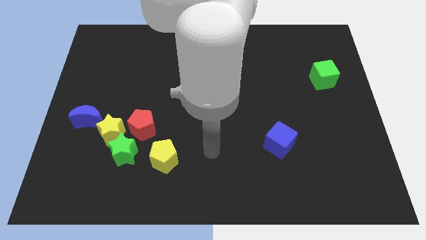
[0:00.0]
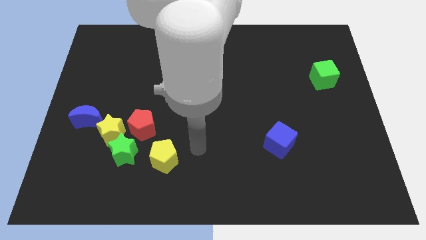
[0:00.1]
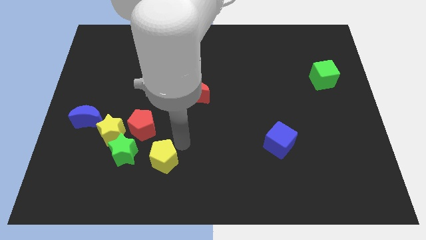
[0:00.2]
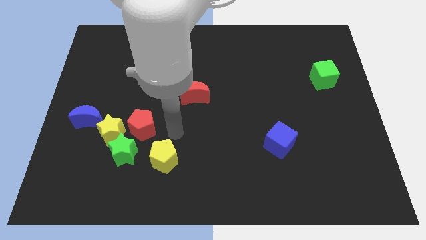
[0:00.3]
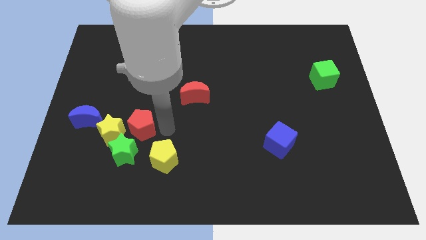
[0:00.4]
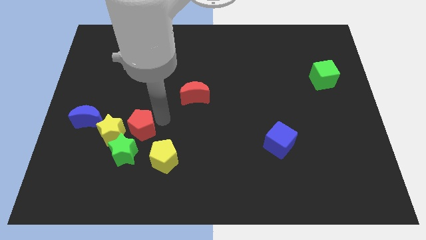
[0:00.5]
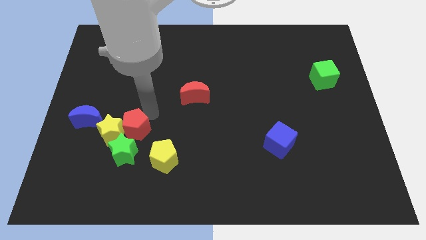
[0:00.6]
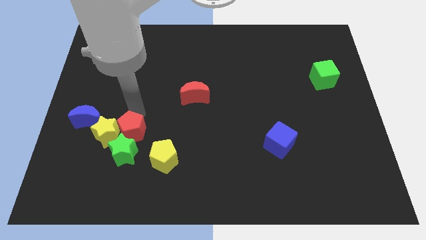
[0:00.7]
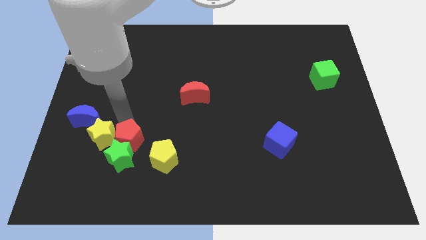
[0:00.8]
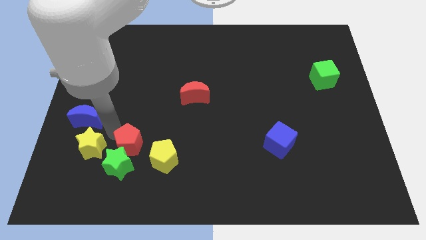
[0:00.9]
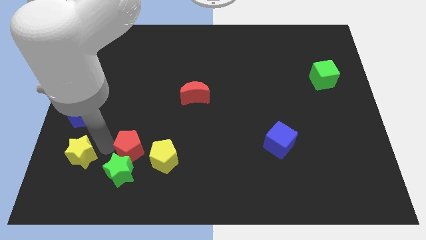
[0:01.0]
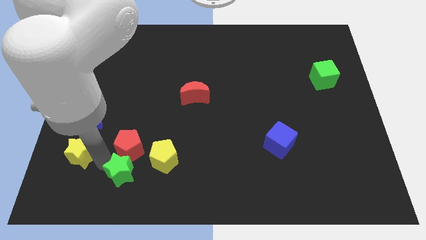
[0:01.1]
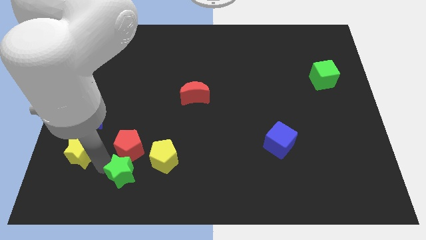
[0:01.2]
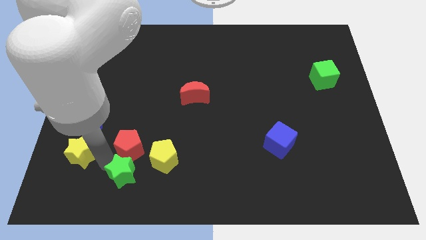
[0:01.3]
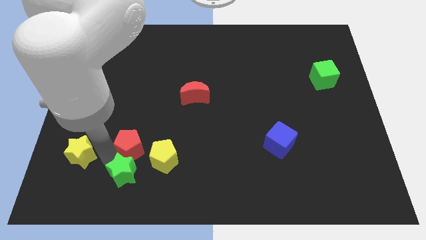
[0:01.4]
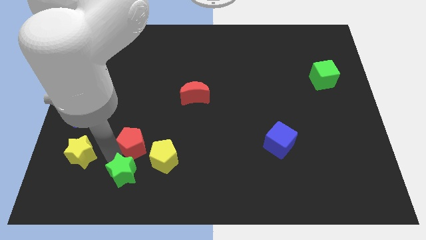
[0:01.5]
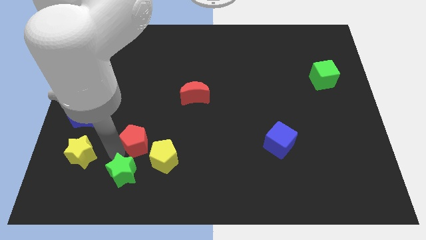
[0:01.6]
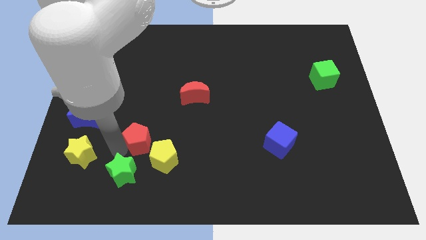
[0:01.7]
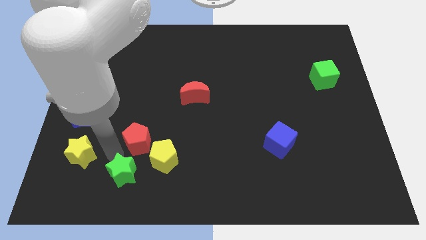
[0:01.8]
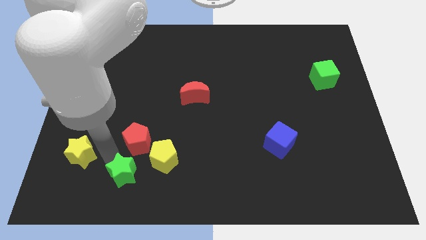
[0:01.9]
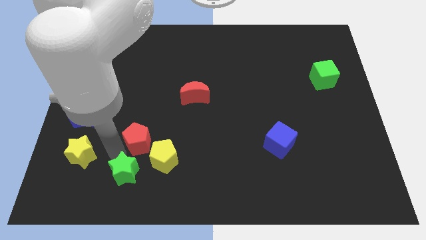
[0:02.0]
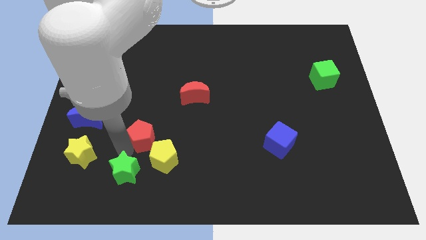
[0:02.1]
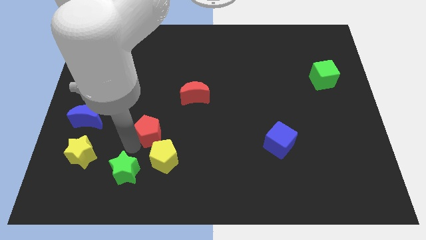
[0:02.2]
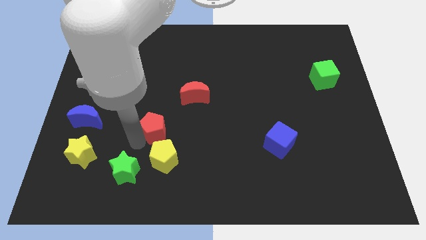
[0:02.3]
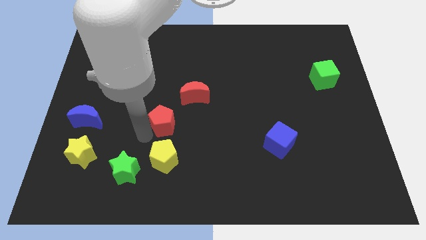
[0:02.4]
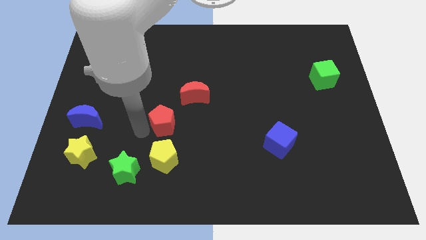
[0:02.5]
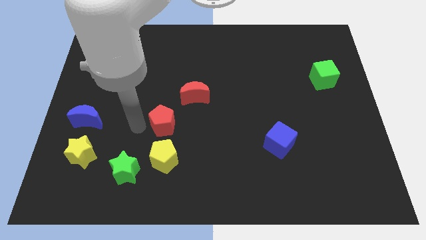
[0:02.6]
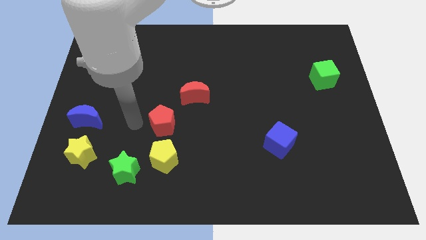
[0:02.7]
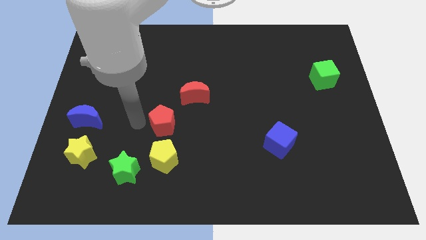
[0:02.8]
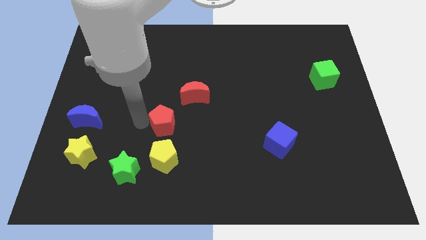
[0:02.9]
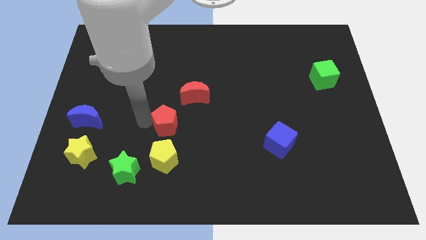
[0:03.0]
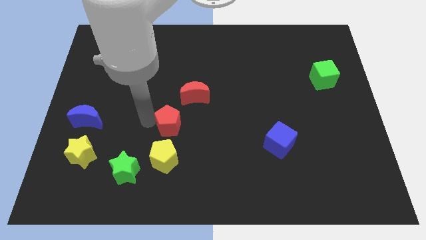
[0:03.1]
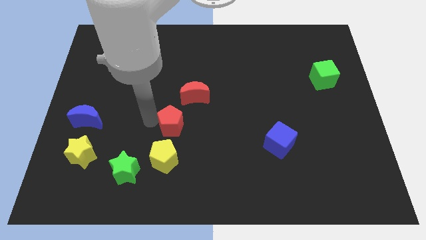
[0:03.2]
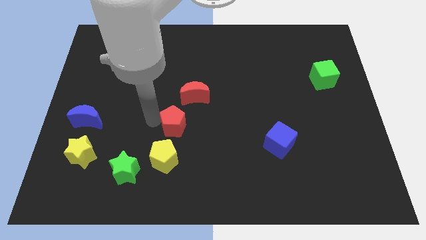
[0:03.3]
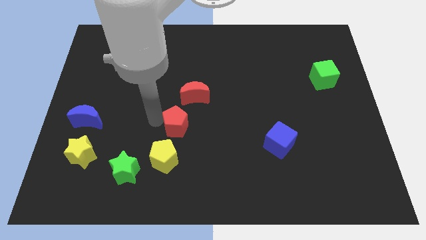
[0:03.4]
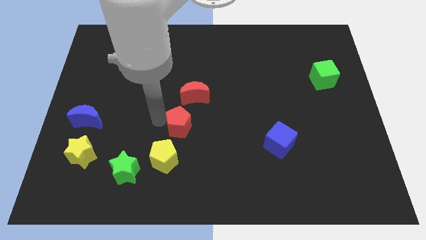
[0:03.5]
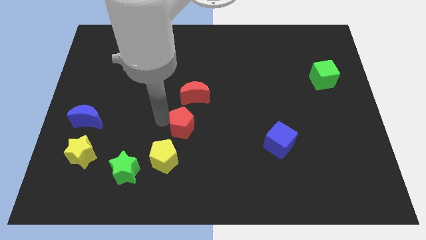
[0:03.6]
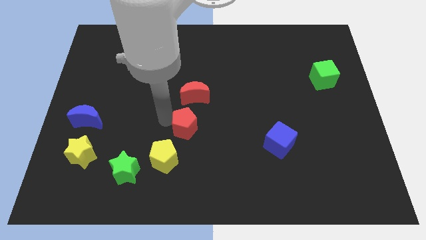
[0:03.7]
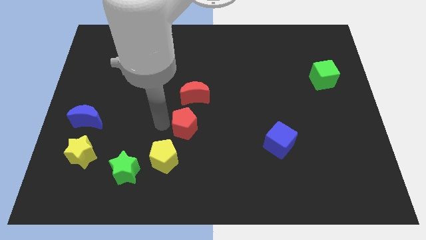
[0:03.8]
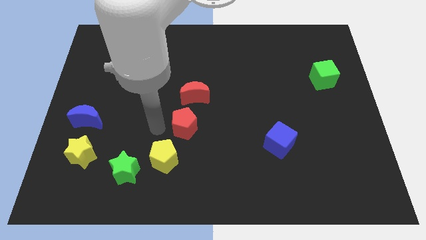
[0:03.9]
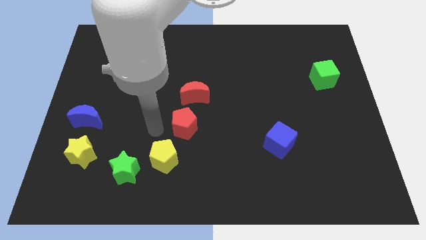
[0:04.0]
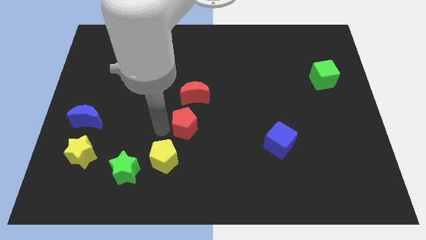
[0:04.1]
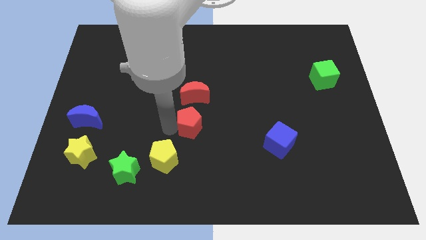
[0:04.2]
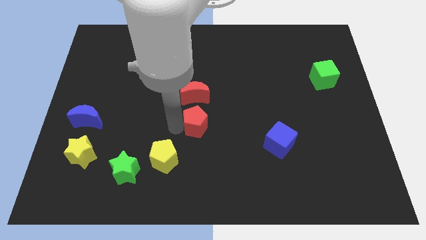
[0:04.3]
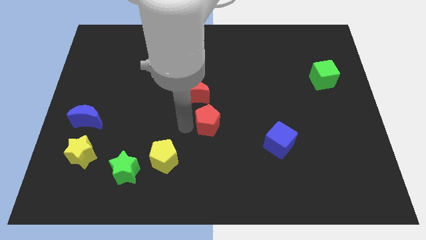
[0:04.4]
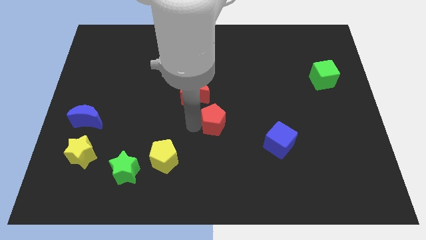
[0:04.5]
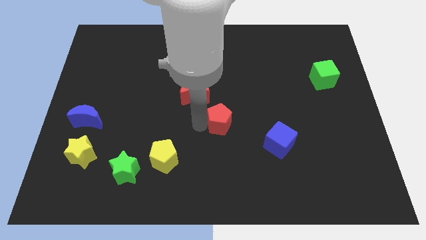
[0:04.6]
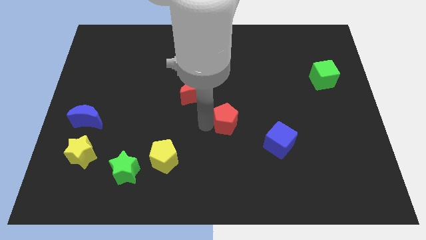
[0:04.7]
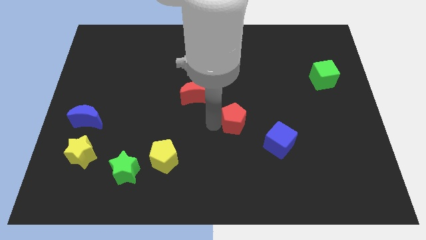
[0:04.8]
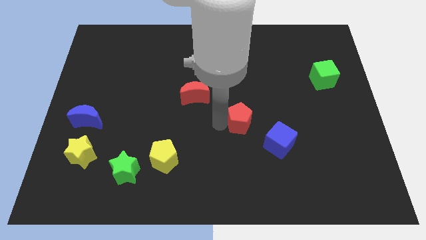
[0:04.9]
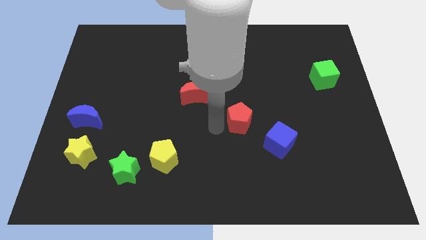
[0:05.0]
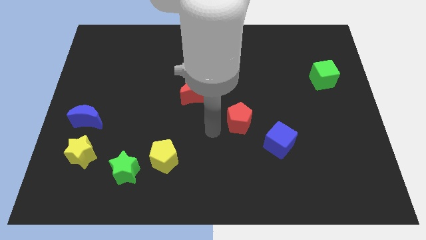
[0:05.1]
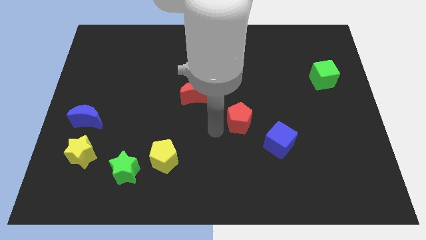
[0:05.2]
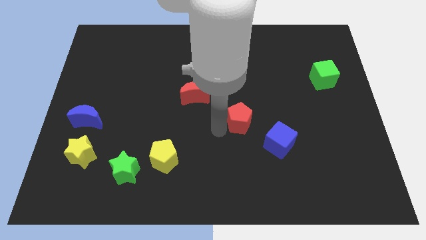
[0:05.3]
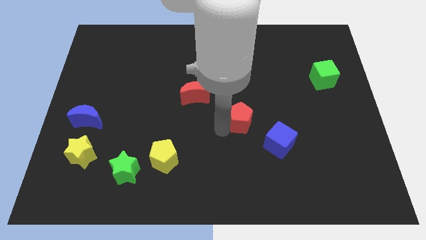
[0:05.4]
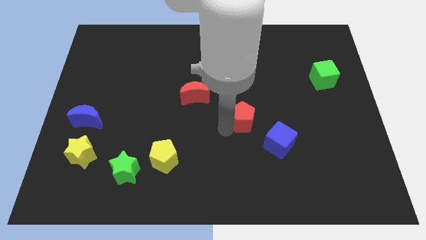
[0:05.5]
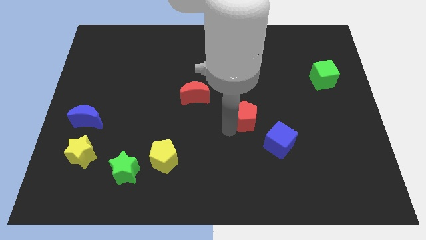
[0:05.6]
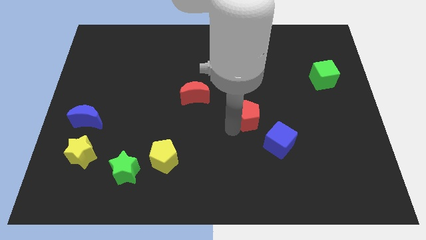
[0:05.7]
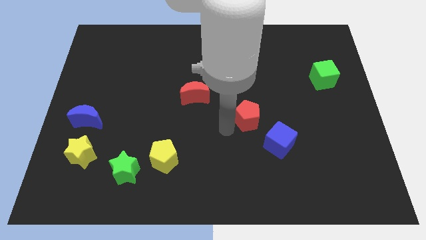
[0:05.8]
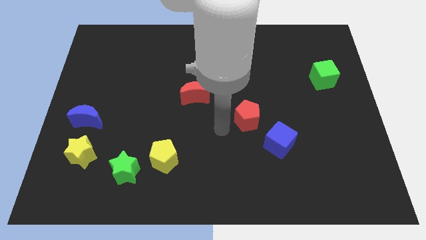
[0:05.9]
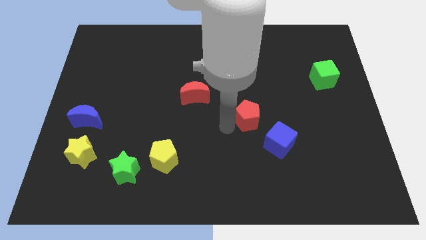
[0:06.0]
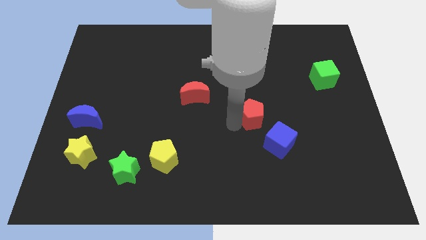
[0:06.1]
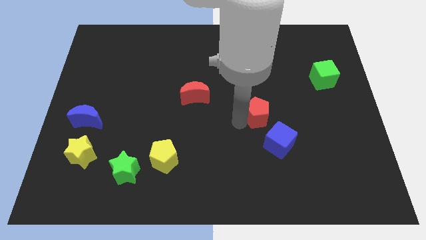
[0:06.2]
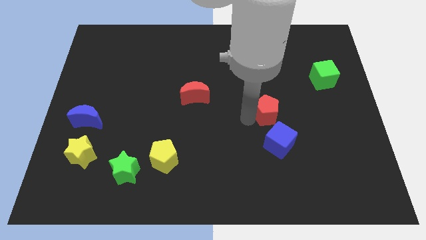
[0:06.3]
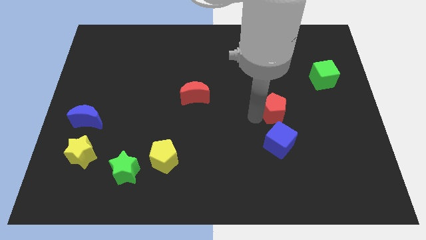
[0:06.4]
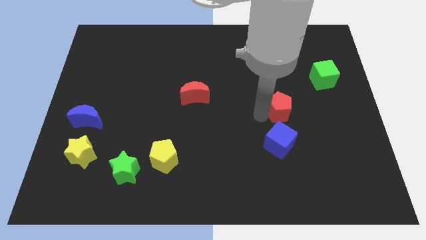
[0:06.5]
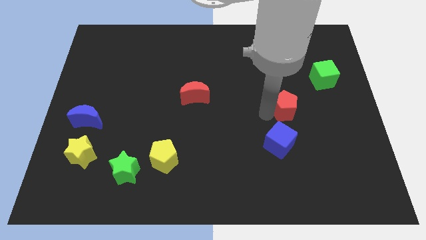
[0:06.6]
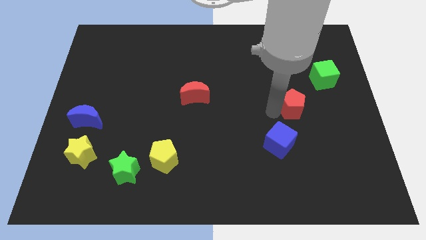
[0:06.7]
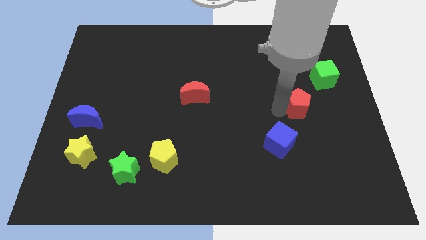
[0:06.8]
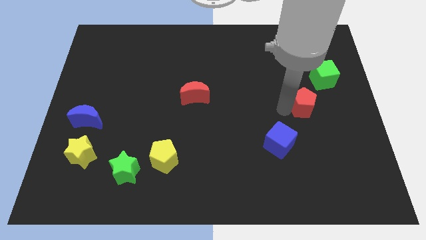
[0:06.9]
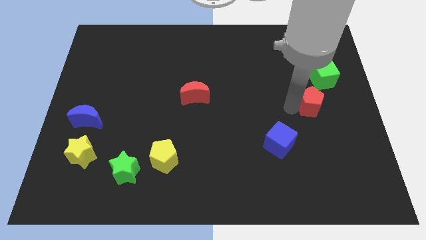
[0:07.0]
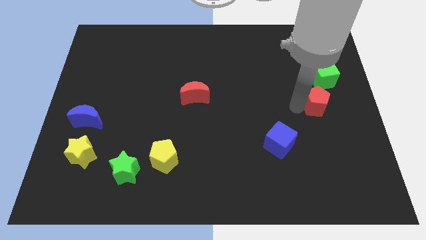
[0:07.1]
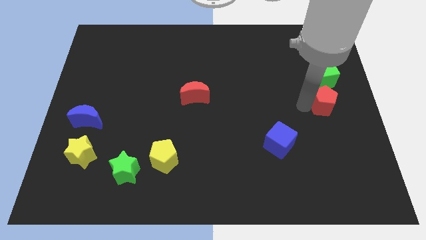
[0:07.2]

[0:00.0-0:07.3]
slide the red pentagon to the center right
